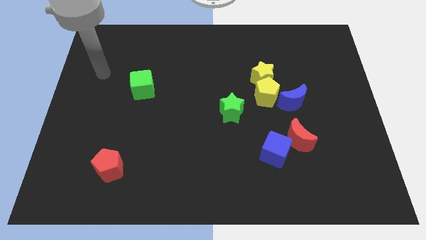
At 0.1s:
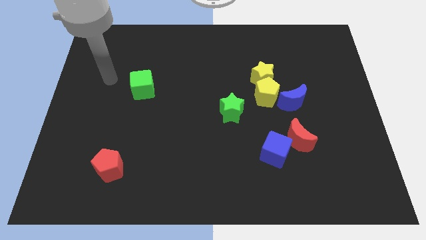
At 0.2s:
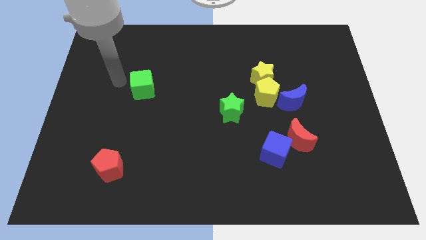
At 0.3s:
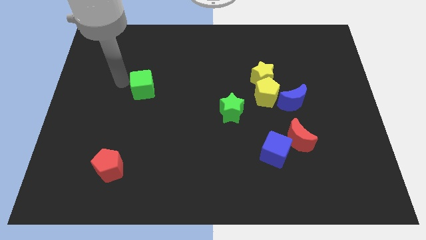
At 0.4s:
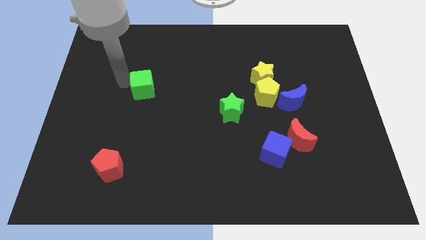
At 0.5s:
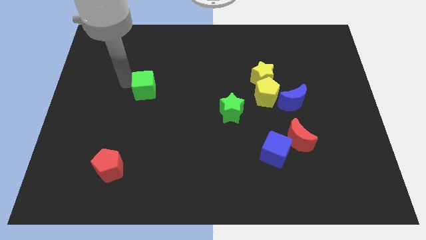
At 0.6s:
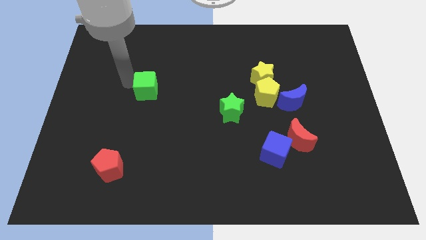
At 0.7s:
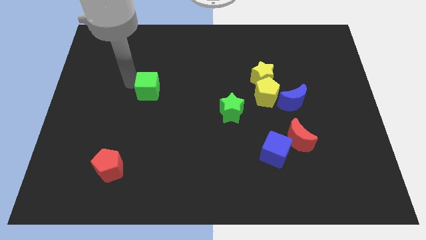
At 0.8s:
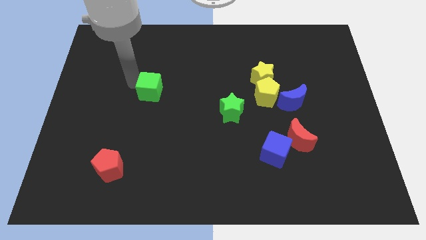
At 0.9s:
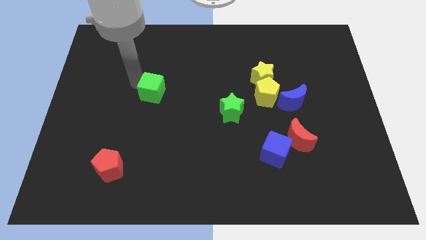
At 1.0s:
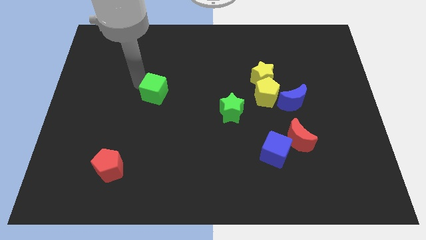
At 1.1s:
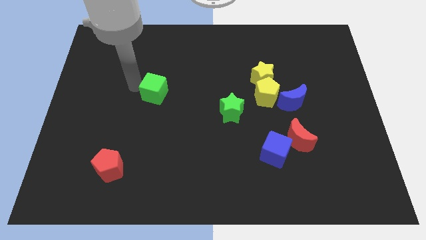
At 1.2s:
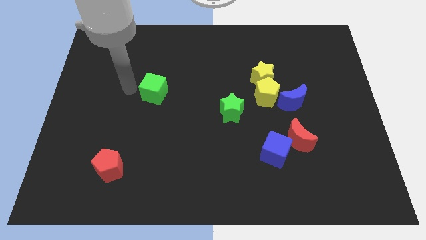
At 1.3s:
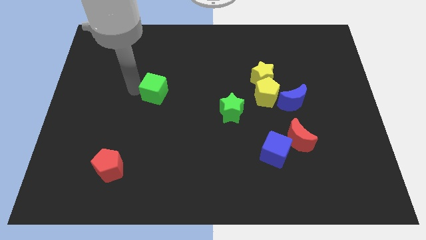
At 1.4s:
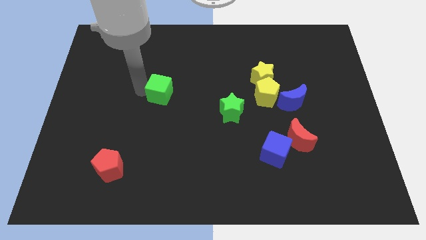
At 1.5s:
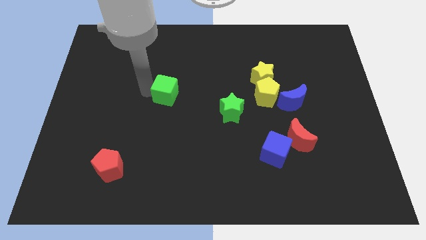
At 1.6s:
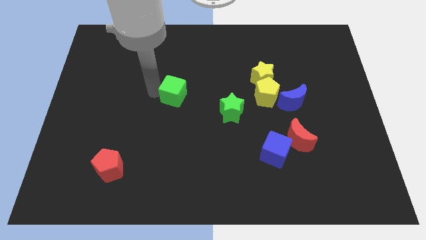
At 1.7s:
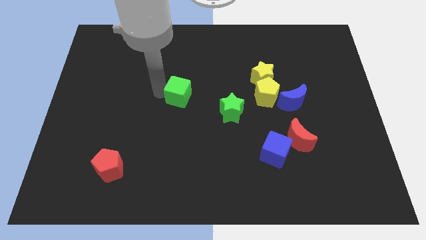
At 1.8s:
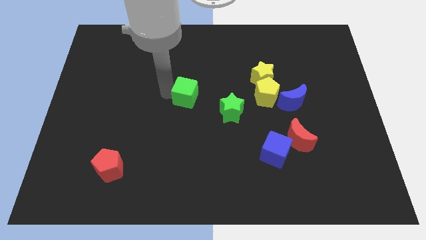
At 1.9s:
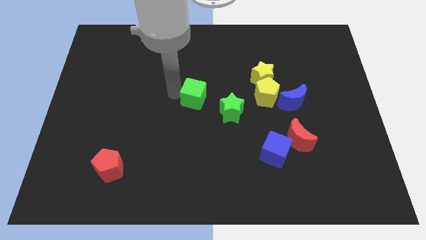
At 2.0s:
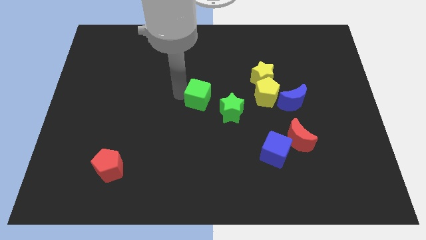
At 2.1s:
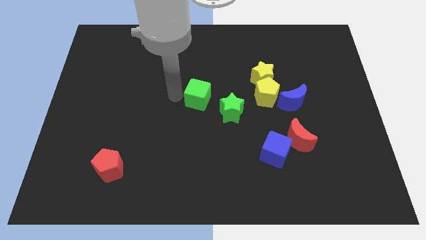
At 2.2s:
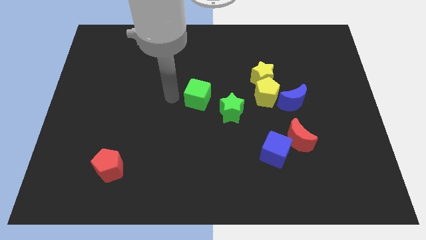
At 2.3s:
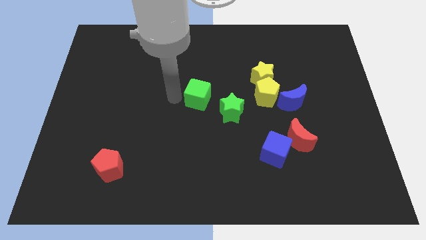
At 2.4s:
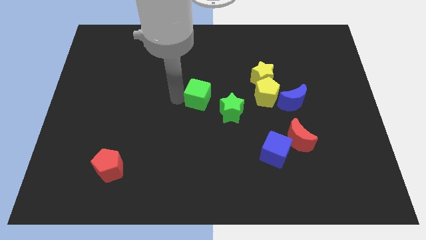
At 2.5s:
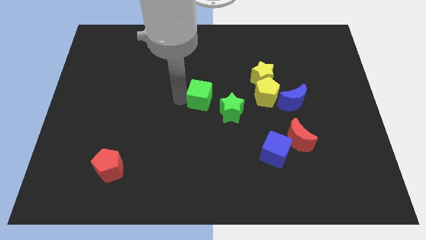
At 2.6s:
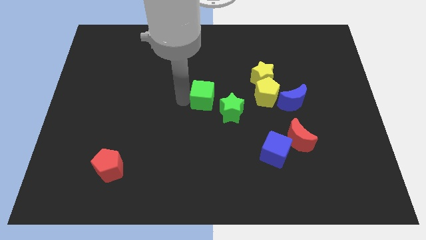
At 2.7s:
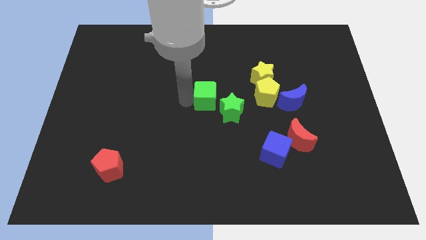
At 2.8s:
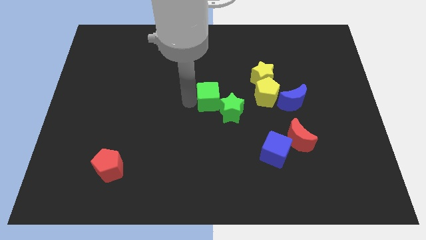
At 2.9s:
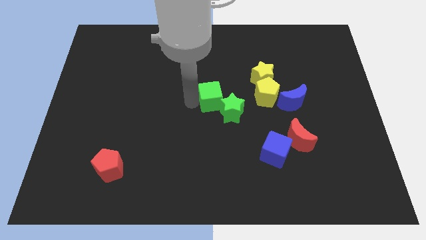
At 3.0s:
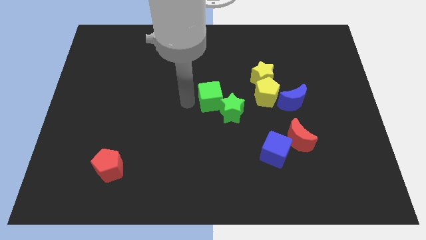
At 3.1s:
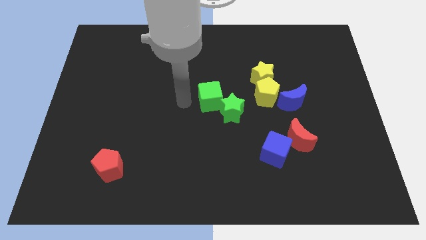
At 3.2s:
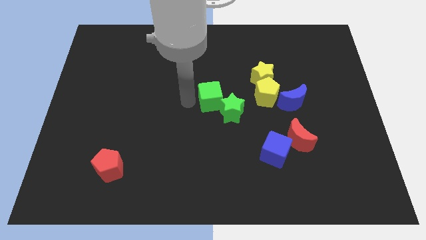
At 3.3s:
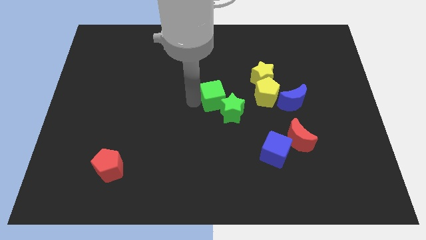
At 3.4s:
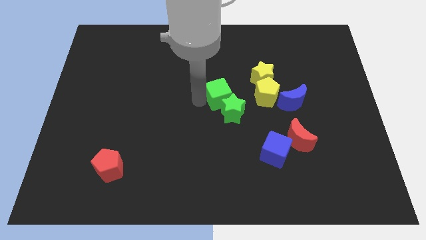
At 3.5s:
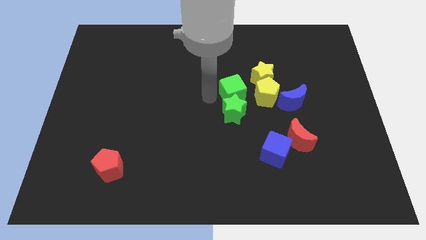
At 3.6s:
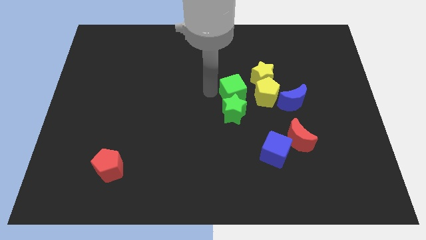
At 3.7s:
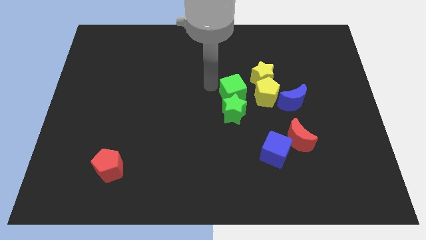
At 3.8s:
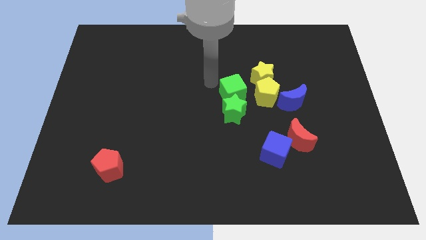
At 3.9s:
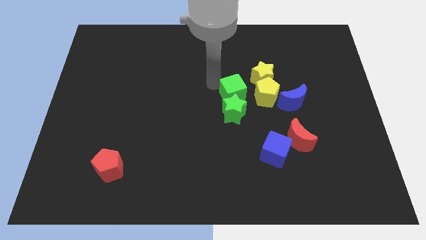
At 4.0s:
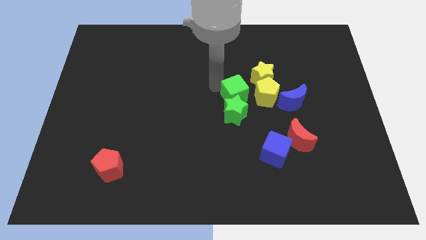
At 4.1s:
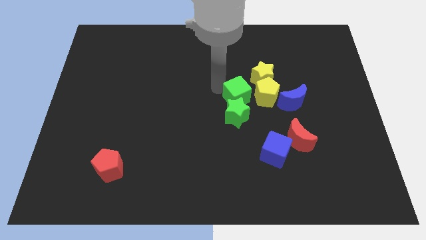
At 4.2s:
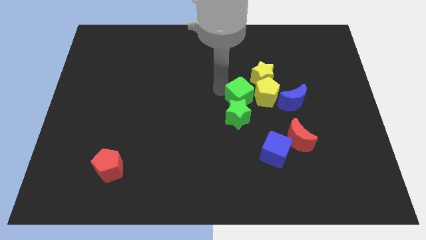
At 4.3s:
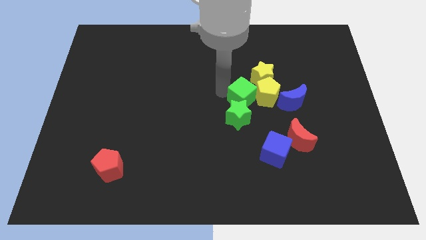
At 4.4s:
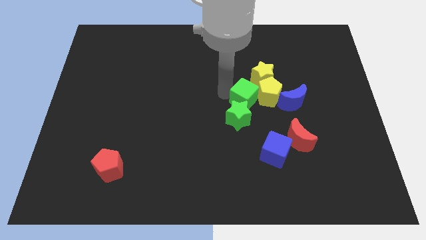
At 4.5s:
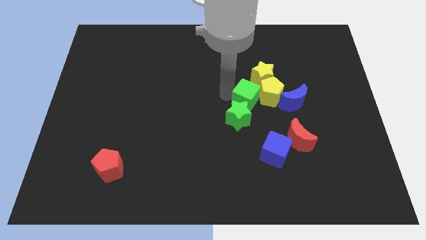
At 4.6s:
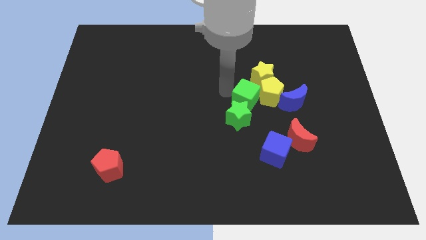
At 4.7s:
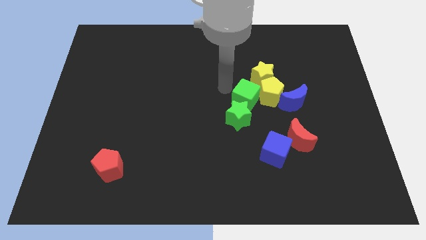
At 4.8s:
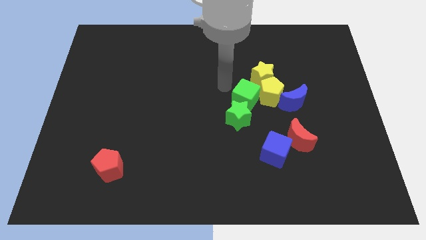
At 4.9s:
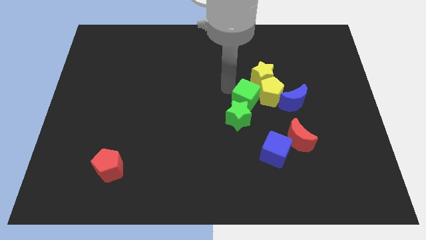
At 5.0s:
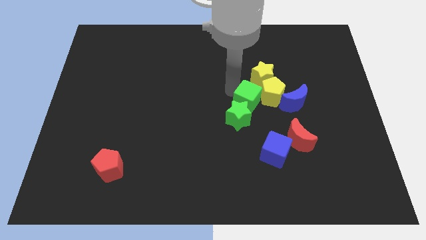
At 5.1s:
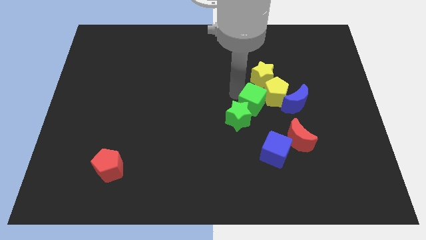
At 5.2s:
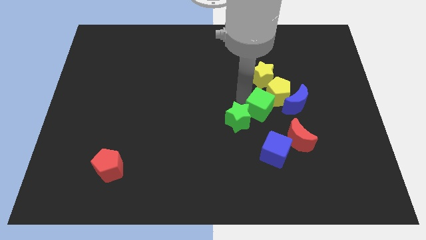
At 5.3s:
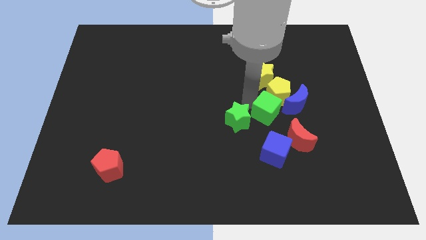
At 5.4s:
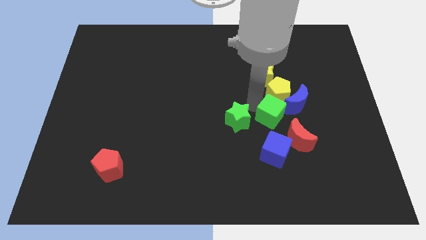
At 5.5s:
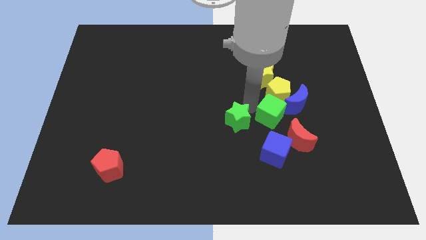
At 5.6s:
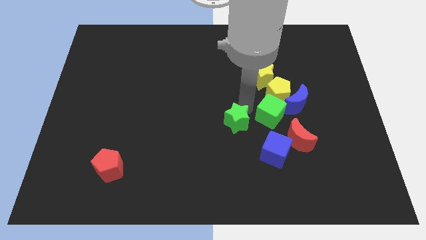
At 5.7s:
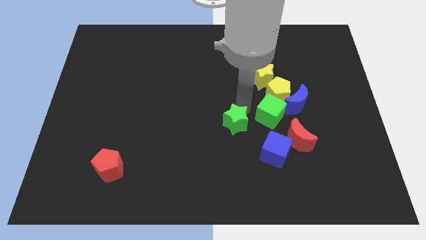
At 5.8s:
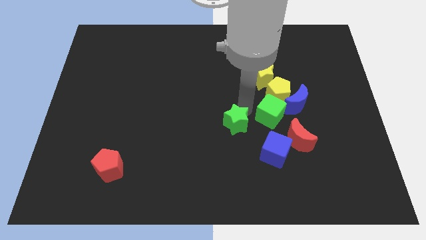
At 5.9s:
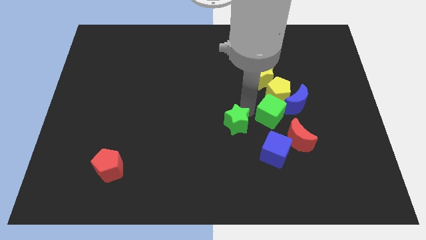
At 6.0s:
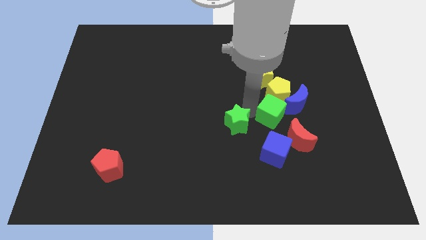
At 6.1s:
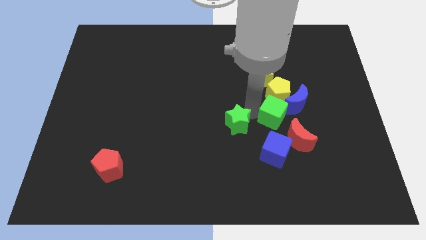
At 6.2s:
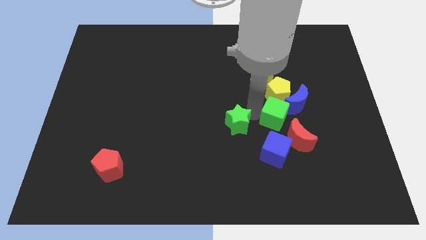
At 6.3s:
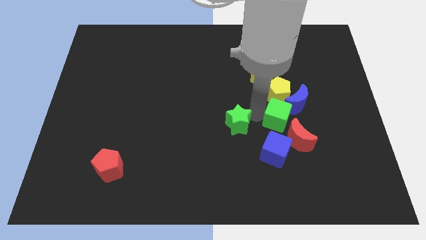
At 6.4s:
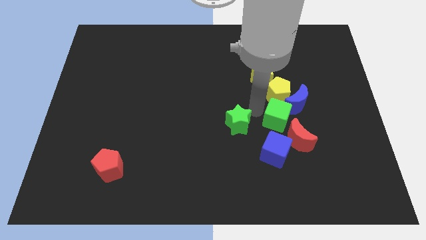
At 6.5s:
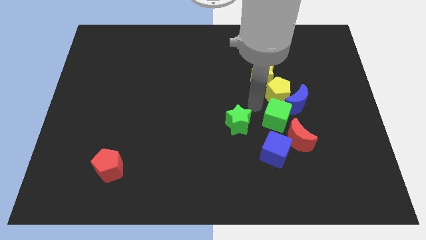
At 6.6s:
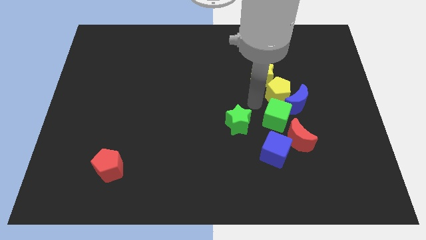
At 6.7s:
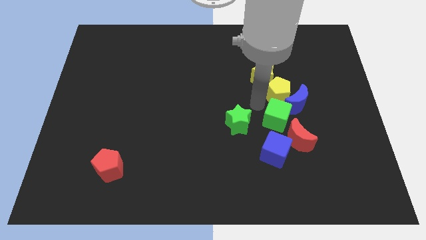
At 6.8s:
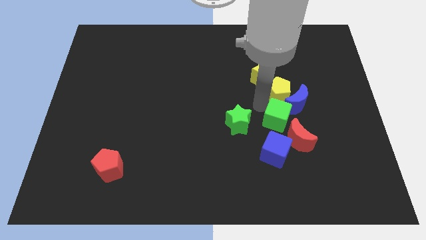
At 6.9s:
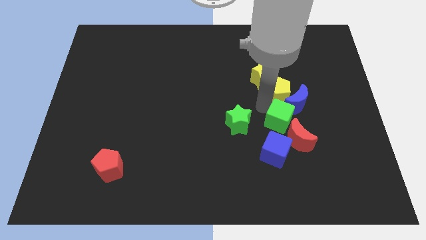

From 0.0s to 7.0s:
push the green cube diagonally up and to the right of the blue cube

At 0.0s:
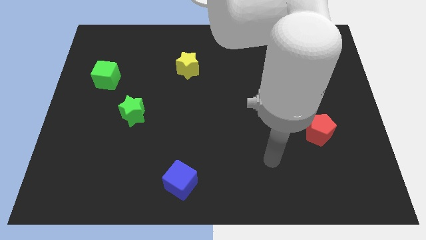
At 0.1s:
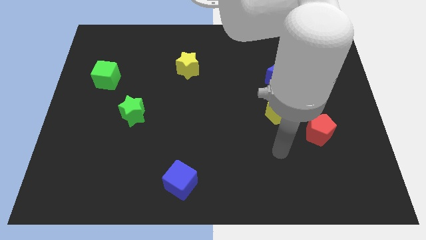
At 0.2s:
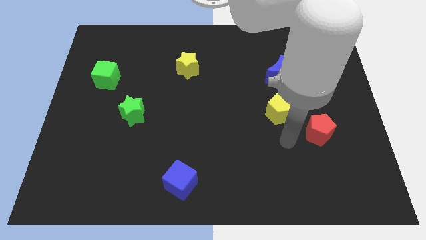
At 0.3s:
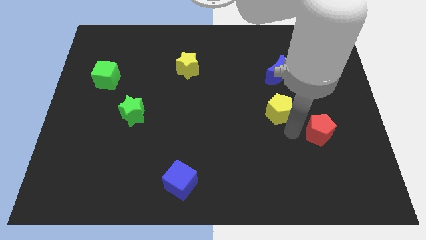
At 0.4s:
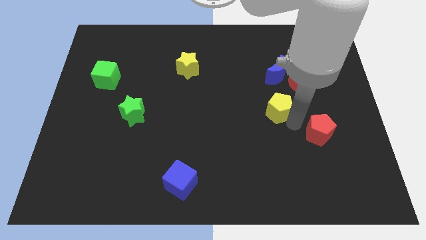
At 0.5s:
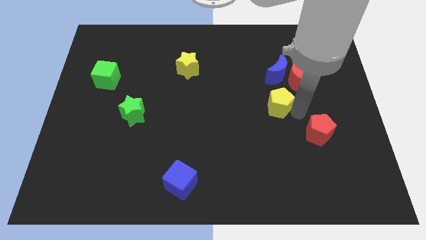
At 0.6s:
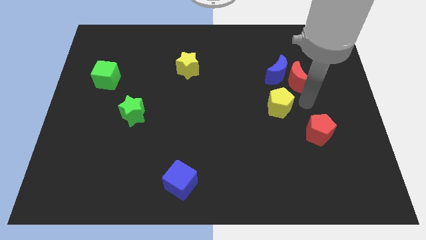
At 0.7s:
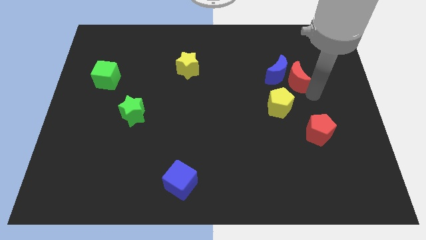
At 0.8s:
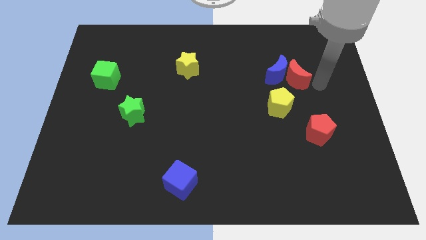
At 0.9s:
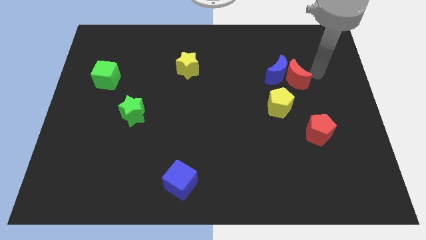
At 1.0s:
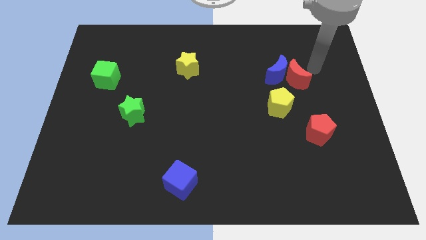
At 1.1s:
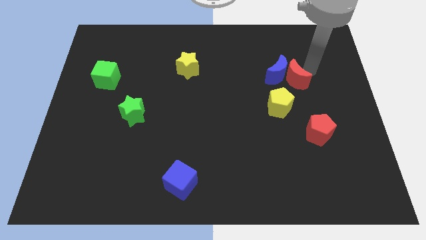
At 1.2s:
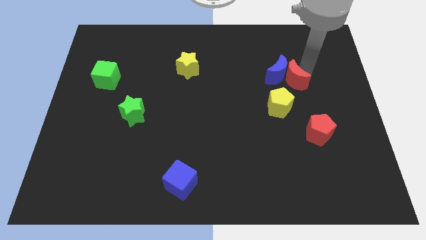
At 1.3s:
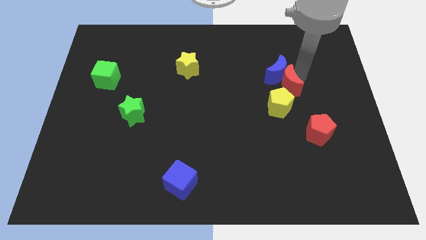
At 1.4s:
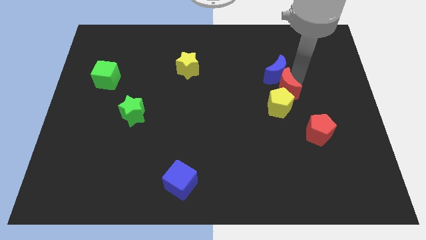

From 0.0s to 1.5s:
push the red moon to the bottom left side of the blue moon
